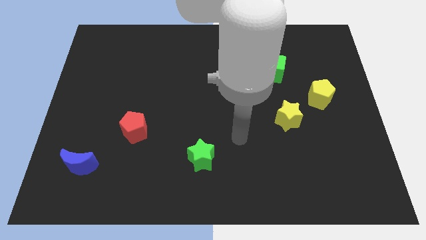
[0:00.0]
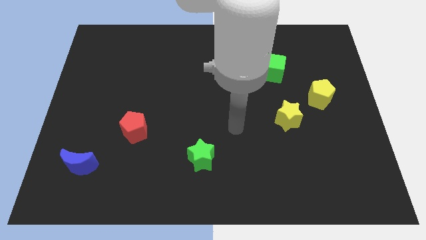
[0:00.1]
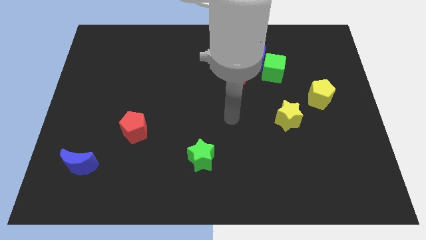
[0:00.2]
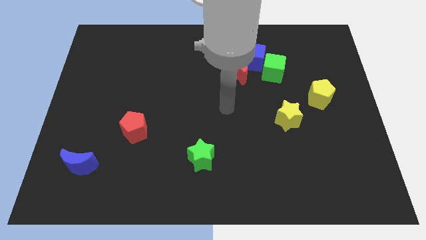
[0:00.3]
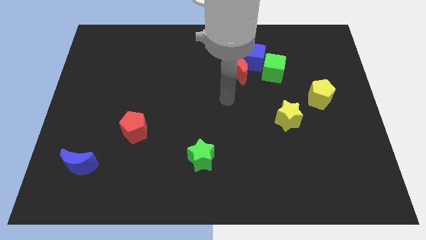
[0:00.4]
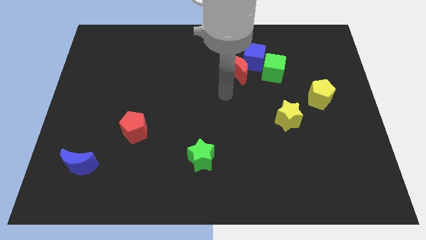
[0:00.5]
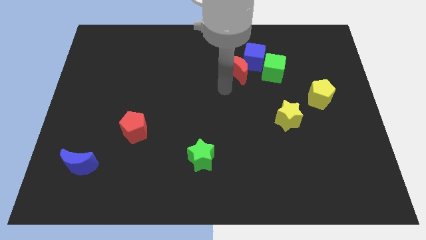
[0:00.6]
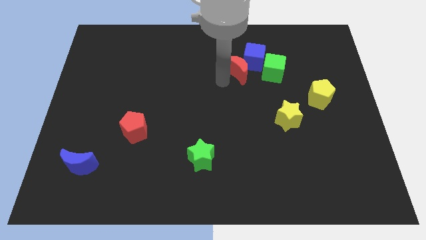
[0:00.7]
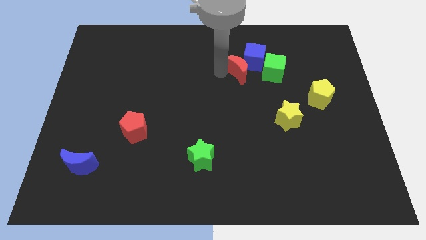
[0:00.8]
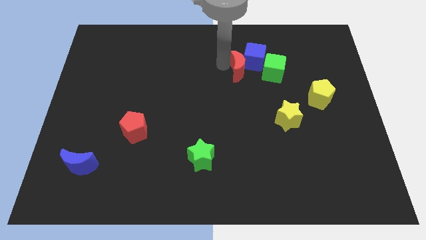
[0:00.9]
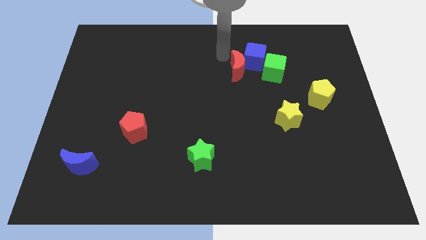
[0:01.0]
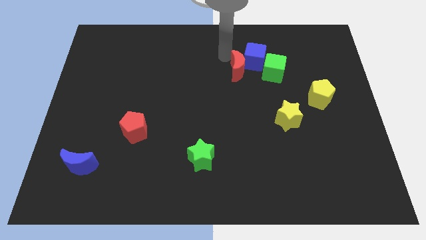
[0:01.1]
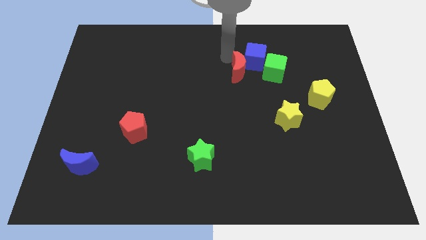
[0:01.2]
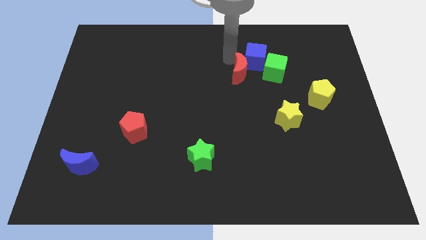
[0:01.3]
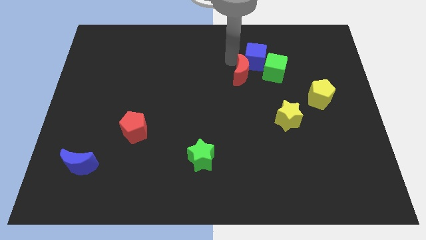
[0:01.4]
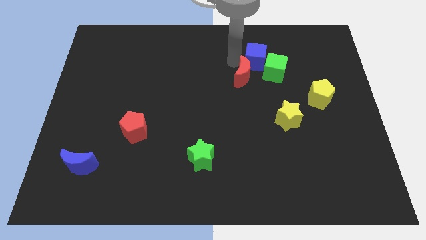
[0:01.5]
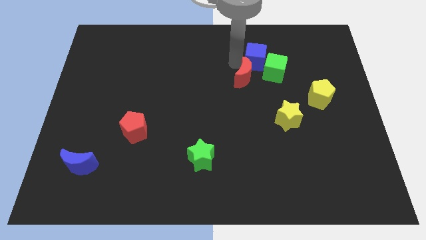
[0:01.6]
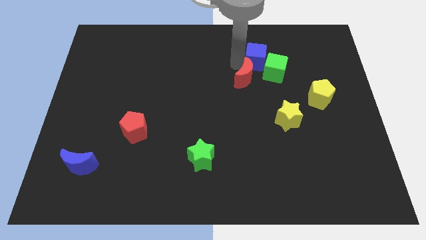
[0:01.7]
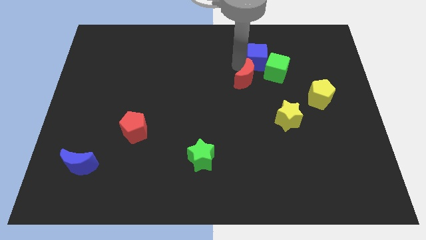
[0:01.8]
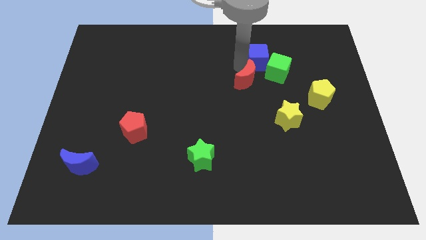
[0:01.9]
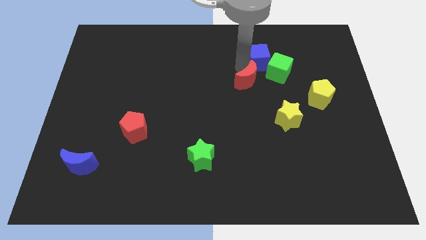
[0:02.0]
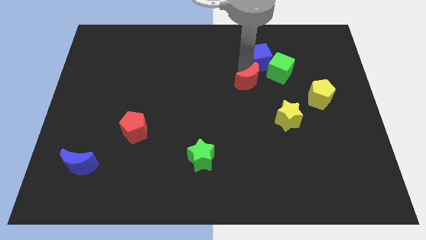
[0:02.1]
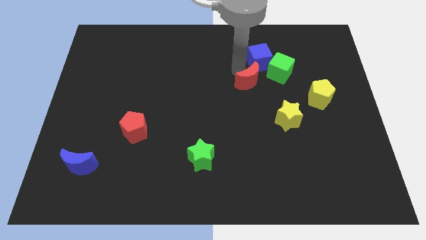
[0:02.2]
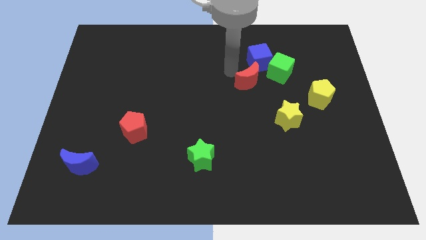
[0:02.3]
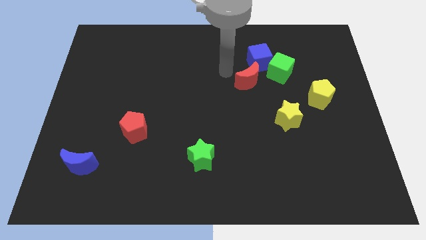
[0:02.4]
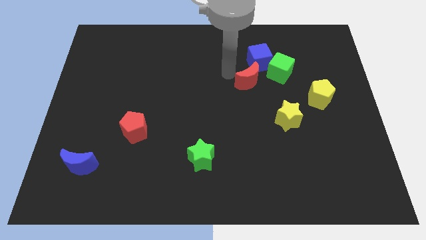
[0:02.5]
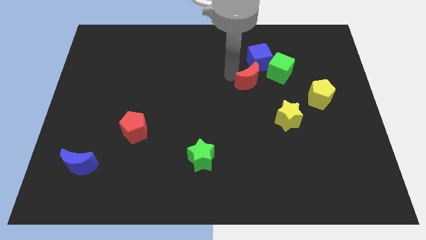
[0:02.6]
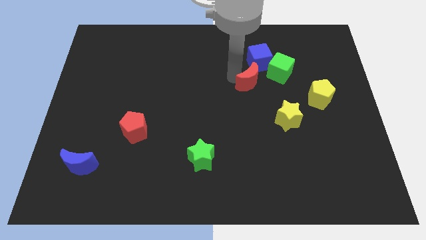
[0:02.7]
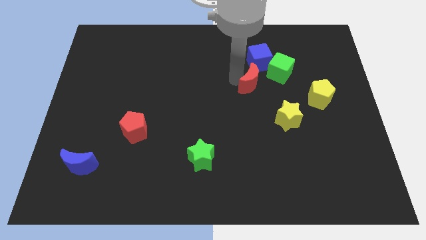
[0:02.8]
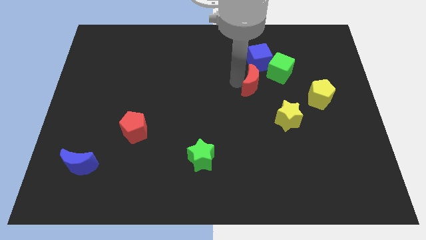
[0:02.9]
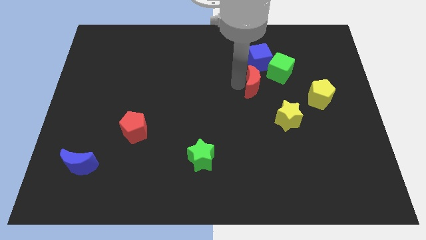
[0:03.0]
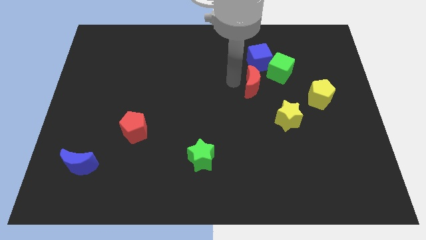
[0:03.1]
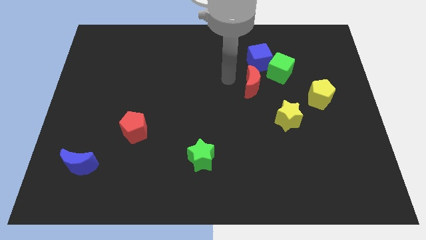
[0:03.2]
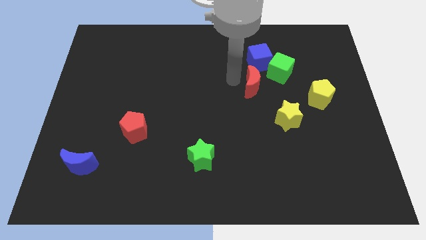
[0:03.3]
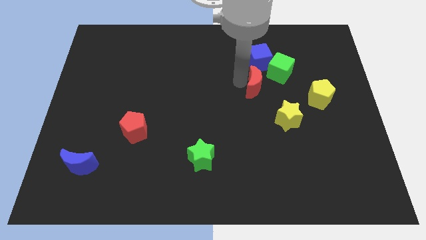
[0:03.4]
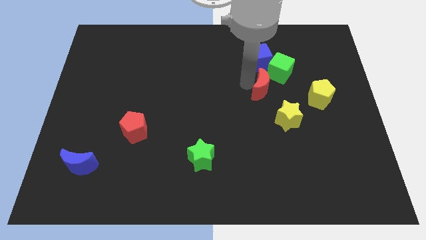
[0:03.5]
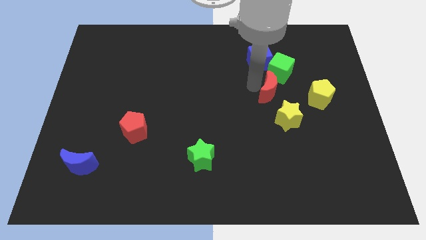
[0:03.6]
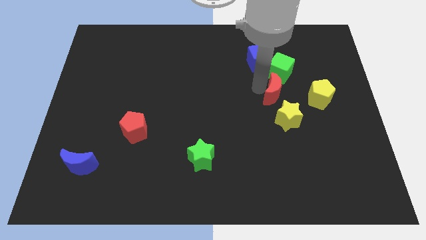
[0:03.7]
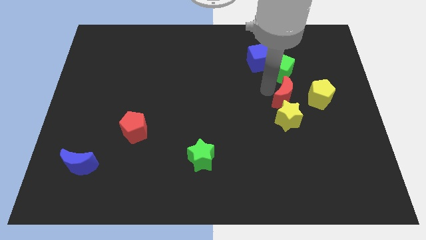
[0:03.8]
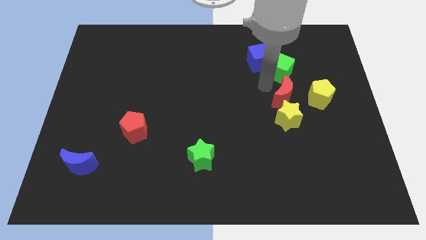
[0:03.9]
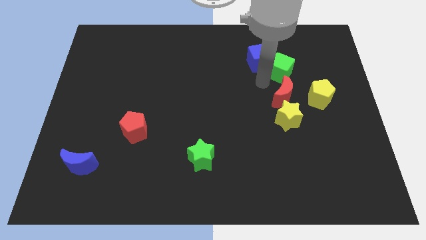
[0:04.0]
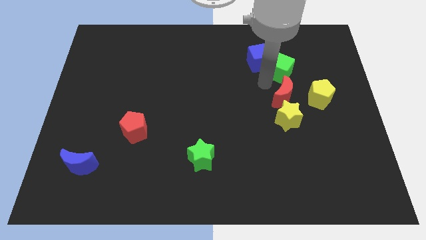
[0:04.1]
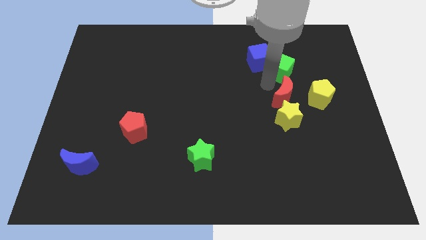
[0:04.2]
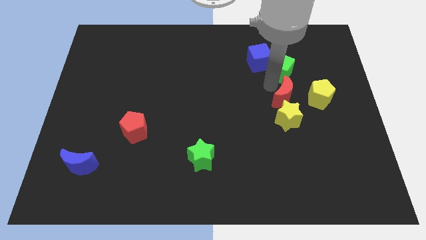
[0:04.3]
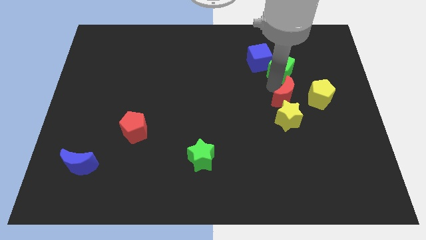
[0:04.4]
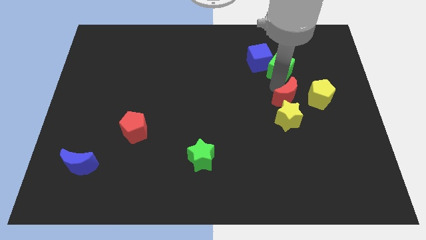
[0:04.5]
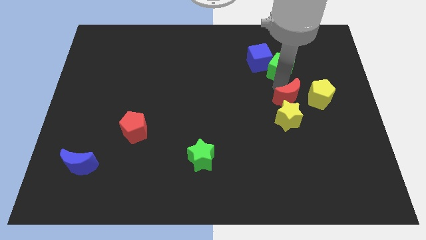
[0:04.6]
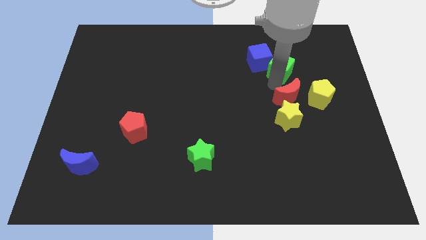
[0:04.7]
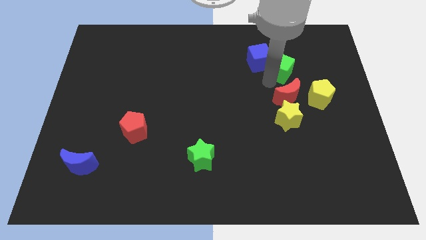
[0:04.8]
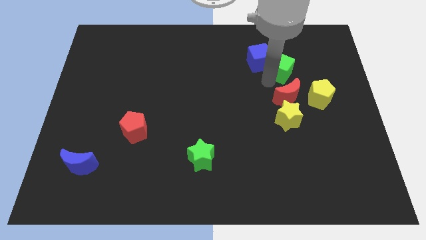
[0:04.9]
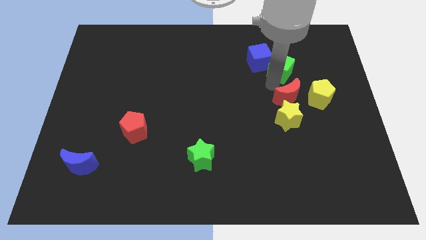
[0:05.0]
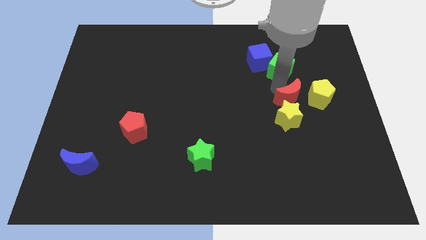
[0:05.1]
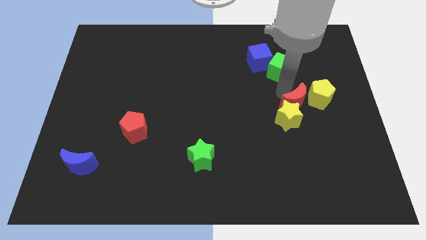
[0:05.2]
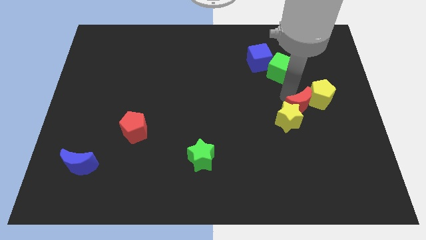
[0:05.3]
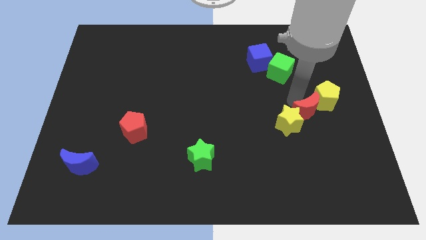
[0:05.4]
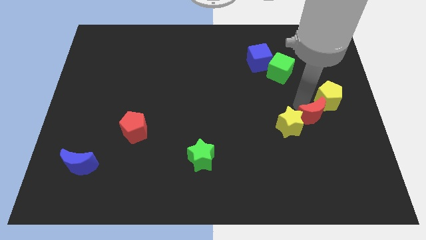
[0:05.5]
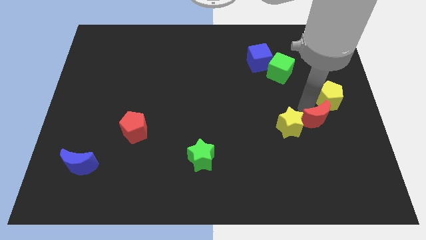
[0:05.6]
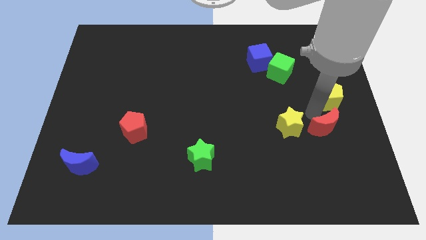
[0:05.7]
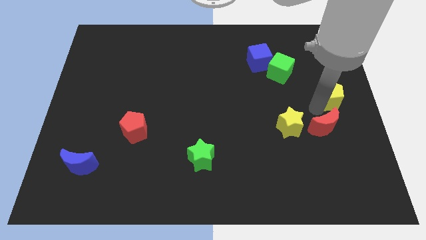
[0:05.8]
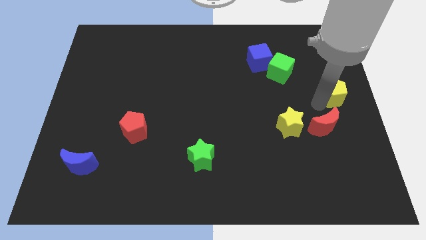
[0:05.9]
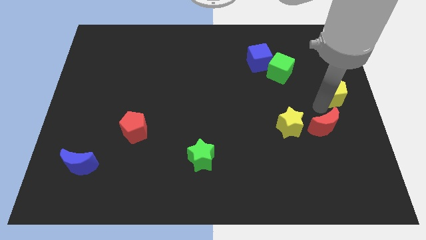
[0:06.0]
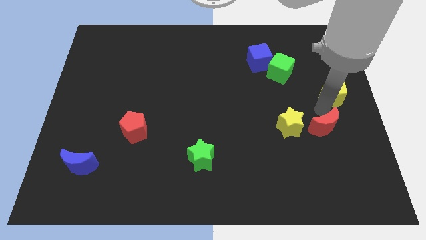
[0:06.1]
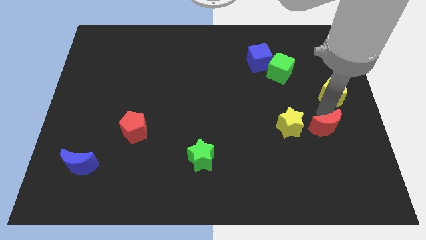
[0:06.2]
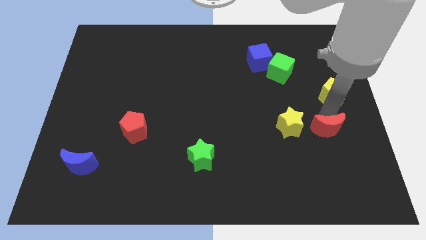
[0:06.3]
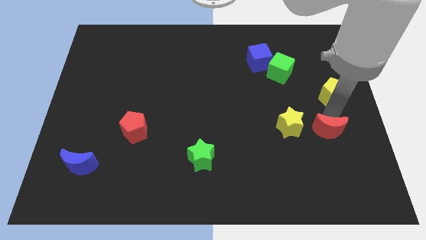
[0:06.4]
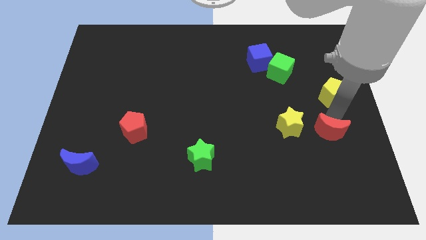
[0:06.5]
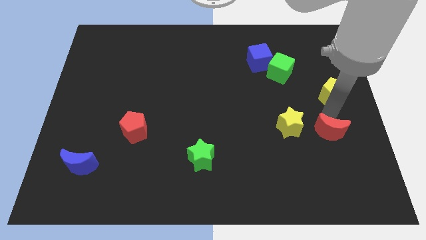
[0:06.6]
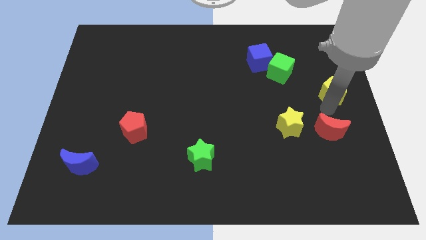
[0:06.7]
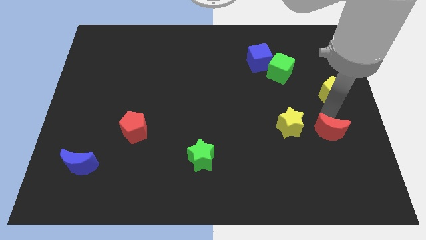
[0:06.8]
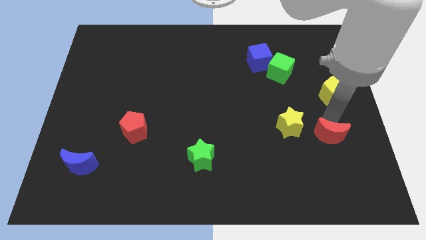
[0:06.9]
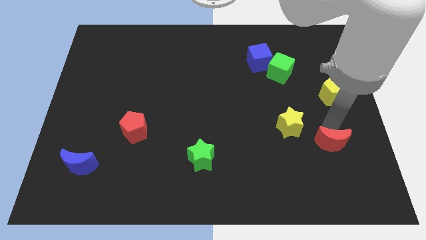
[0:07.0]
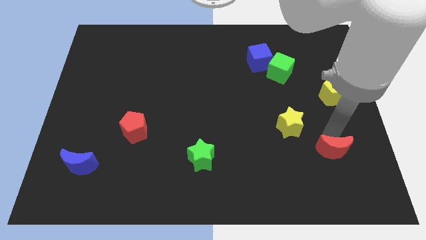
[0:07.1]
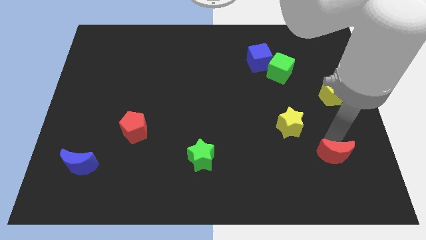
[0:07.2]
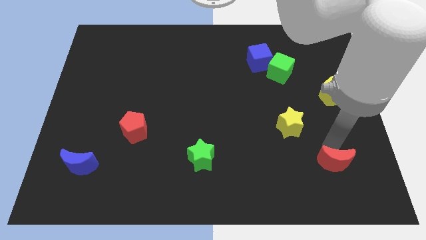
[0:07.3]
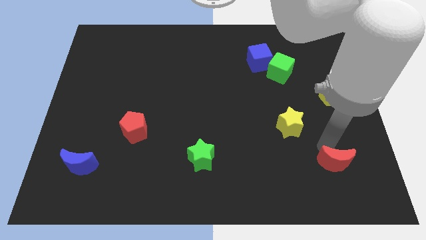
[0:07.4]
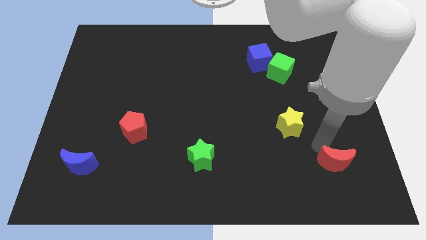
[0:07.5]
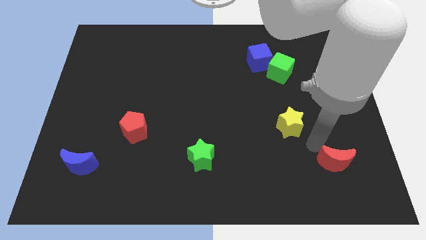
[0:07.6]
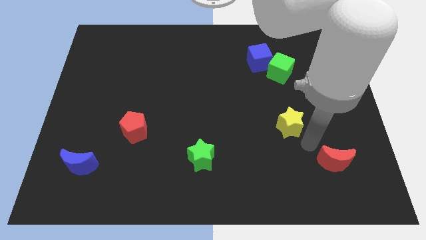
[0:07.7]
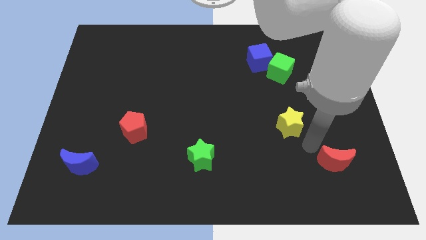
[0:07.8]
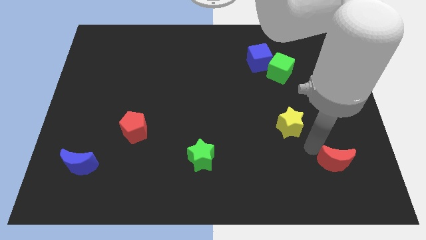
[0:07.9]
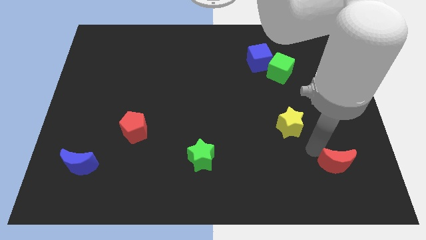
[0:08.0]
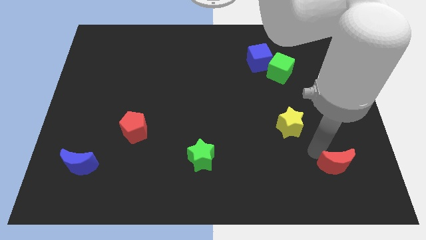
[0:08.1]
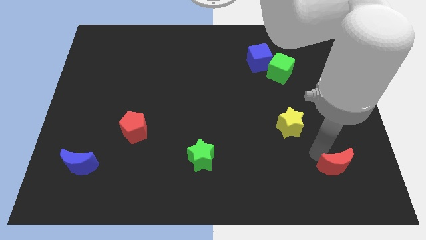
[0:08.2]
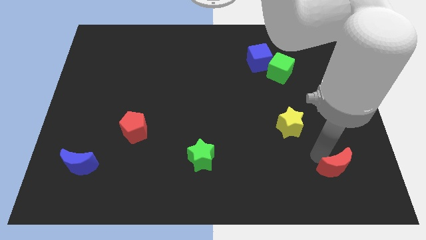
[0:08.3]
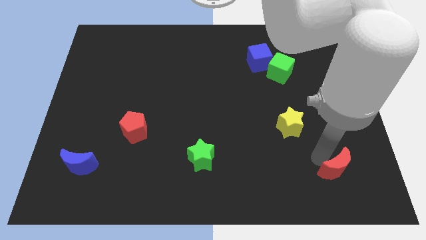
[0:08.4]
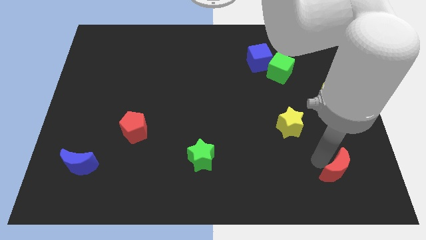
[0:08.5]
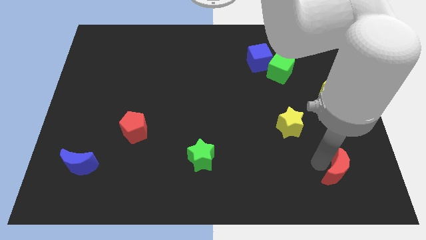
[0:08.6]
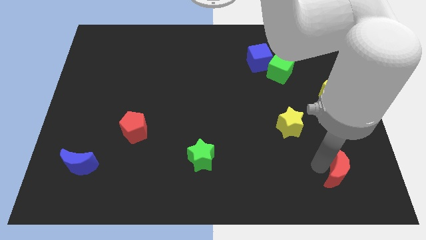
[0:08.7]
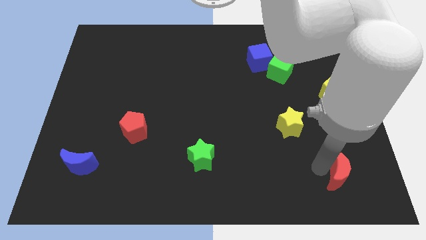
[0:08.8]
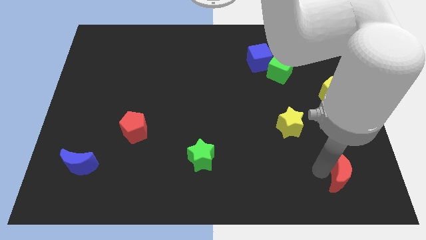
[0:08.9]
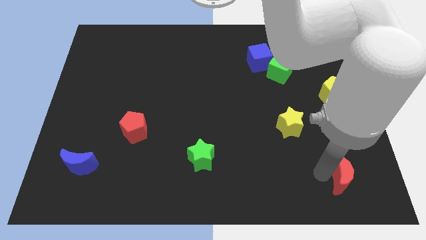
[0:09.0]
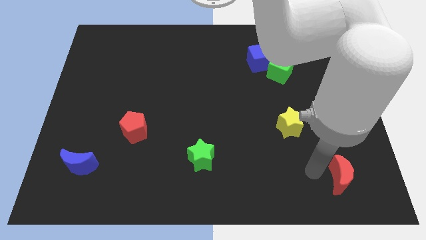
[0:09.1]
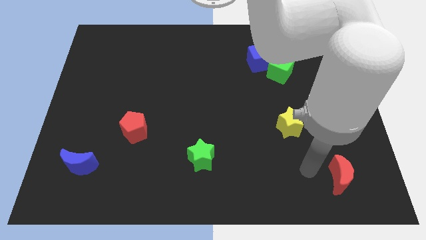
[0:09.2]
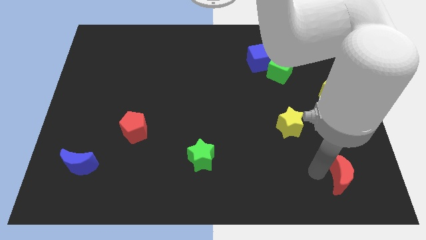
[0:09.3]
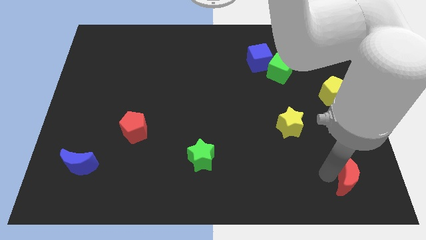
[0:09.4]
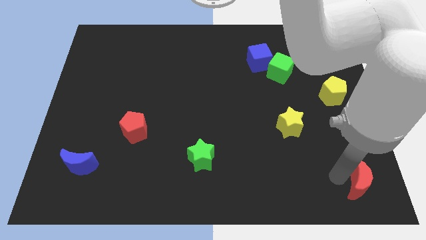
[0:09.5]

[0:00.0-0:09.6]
push the red moon to the bottom right corner
